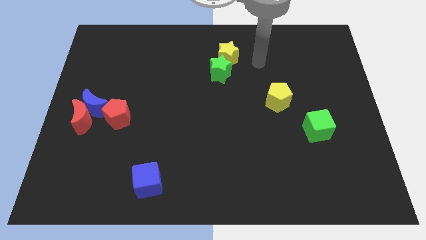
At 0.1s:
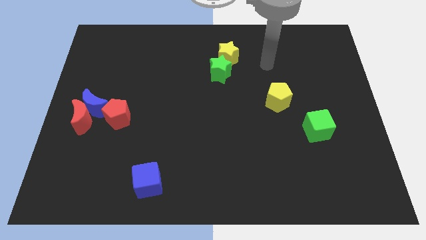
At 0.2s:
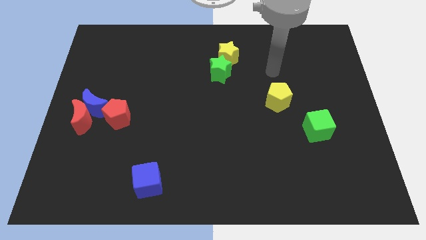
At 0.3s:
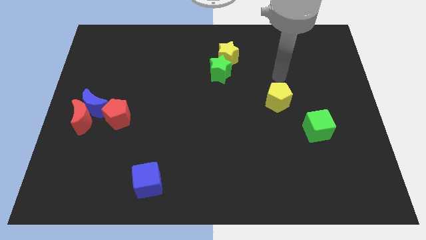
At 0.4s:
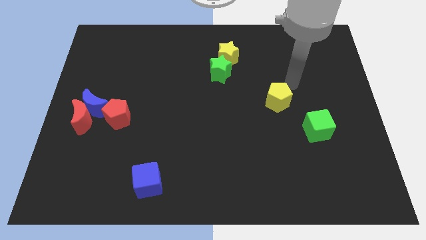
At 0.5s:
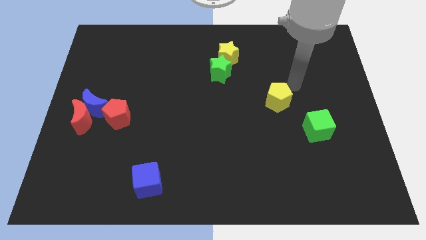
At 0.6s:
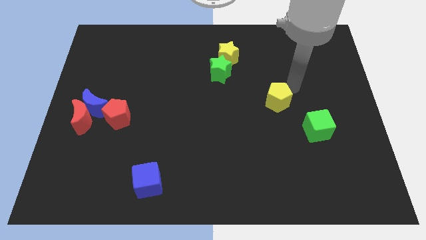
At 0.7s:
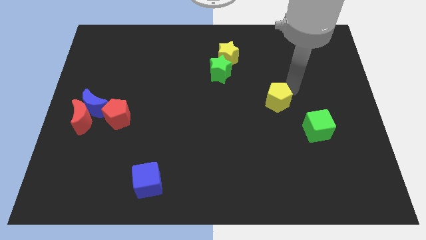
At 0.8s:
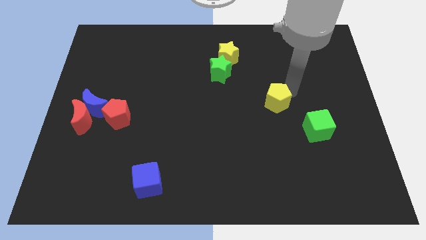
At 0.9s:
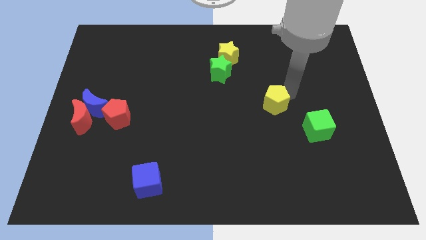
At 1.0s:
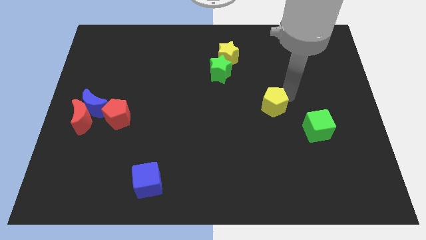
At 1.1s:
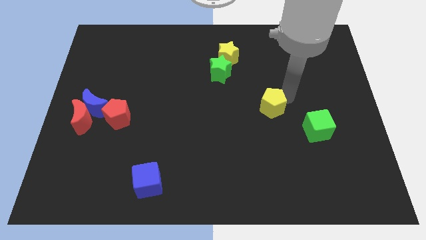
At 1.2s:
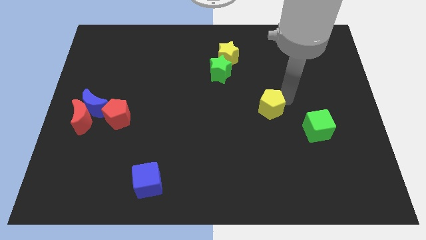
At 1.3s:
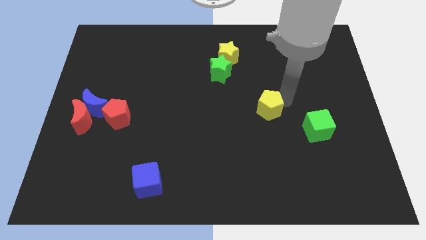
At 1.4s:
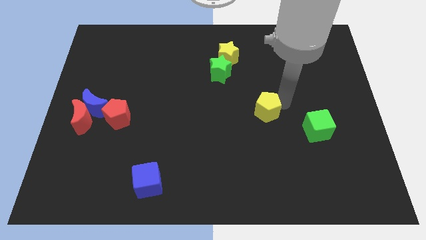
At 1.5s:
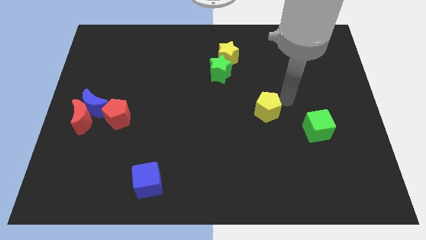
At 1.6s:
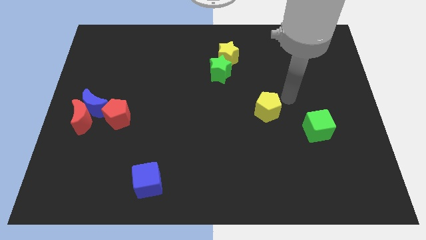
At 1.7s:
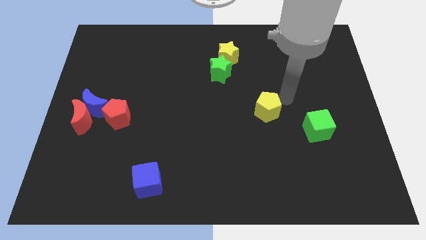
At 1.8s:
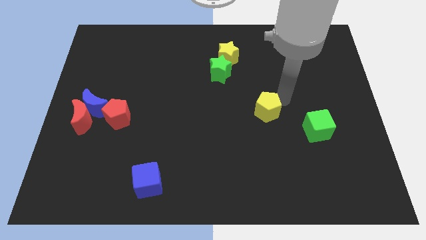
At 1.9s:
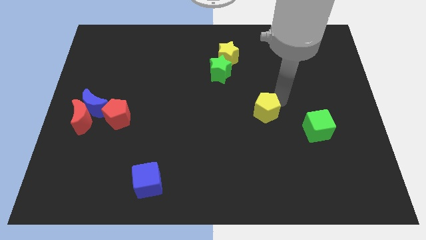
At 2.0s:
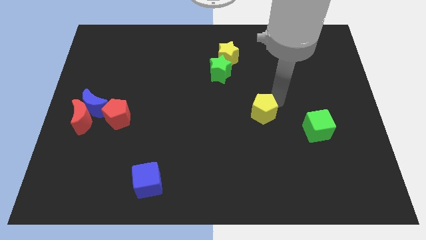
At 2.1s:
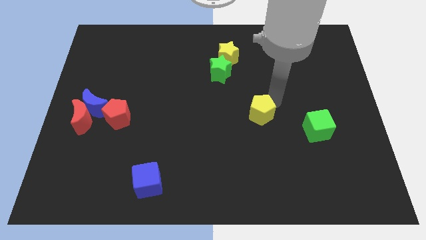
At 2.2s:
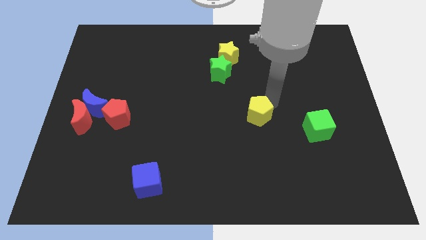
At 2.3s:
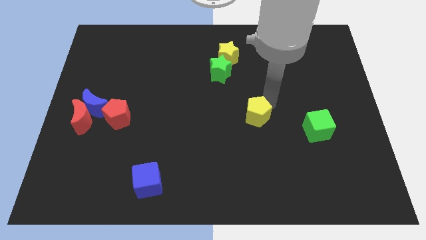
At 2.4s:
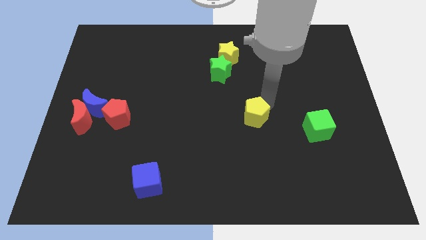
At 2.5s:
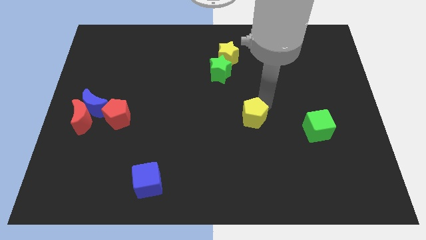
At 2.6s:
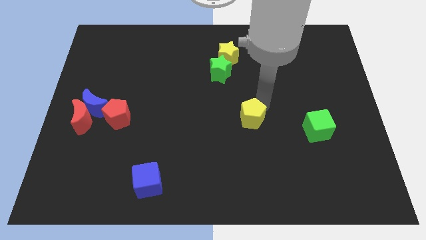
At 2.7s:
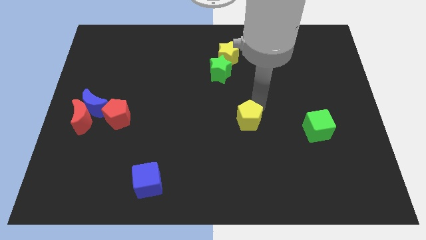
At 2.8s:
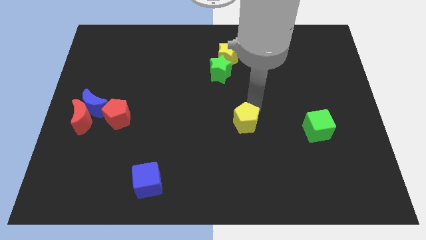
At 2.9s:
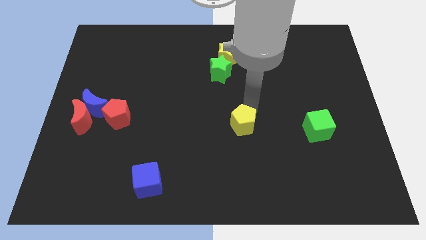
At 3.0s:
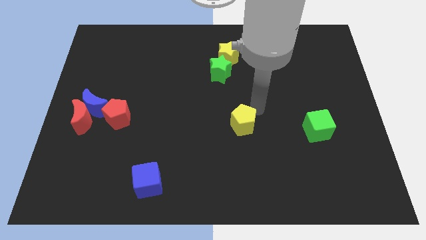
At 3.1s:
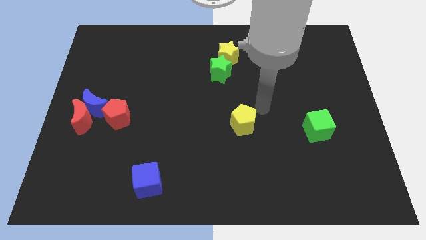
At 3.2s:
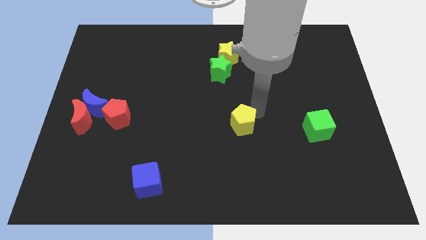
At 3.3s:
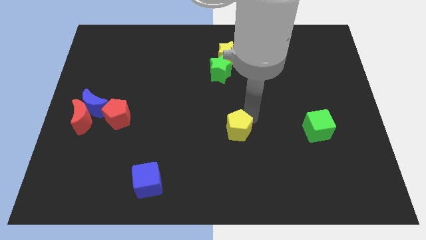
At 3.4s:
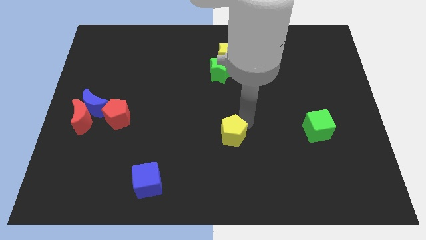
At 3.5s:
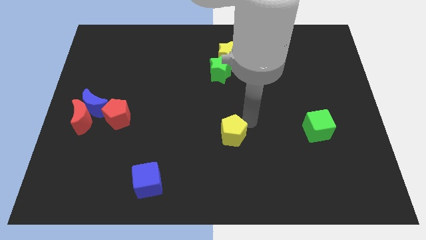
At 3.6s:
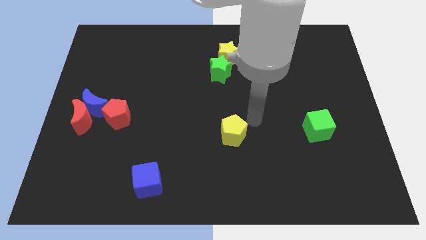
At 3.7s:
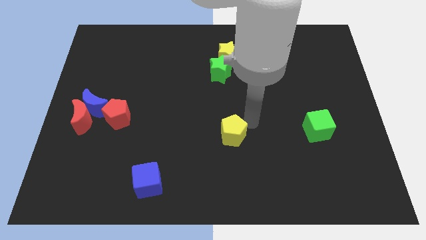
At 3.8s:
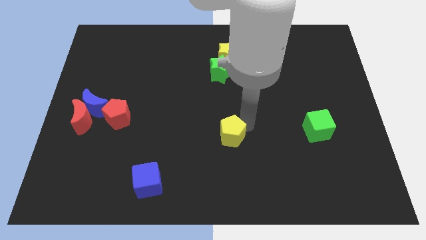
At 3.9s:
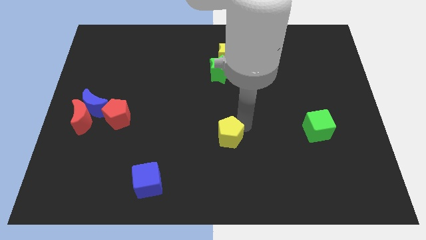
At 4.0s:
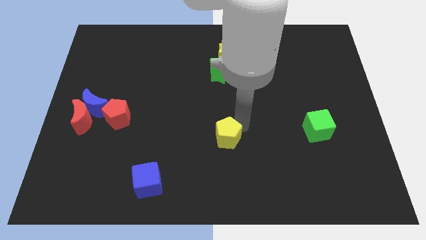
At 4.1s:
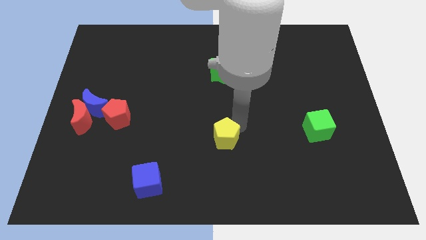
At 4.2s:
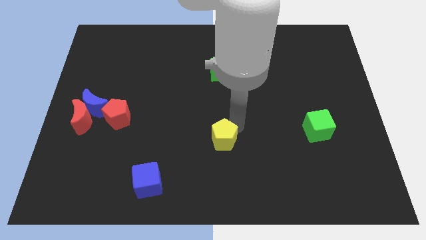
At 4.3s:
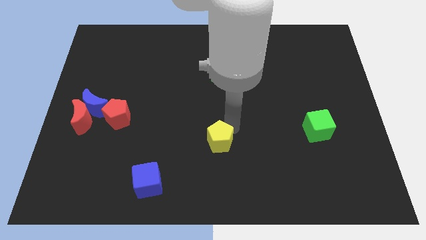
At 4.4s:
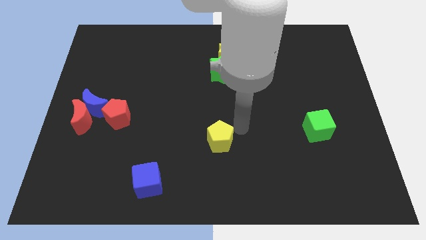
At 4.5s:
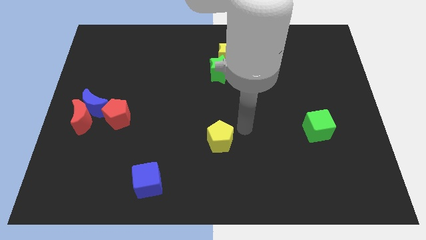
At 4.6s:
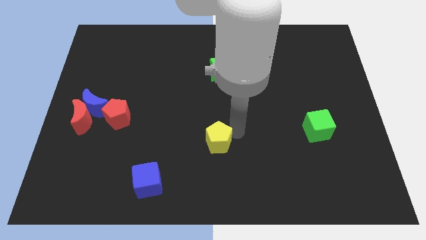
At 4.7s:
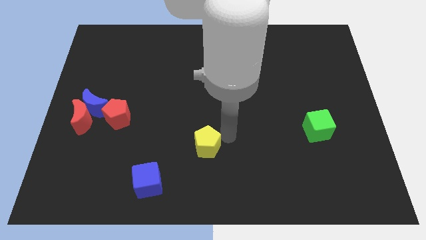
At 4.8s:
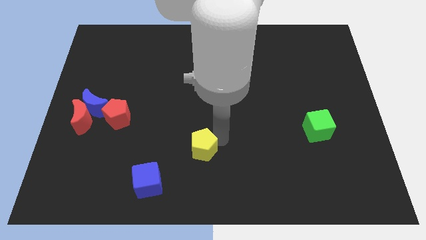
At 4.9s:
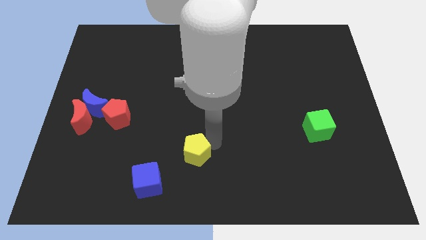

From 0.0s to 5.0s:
slide the yellow pentagon diagonally up and to the right of the blue cube

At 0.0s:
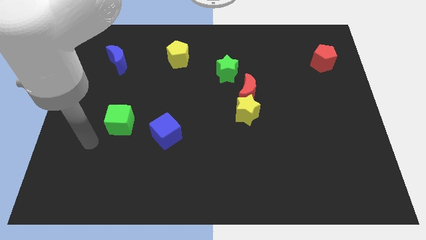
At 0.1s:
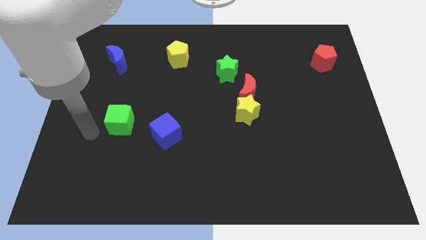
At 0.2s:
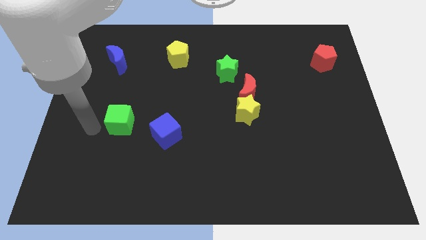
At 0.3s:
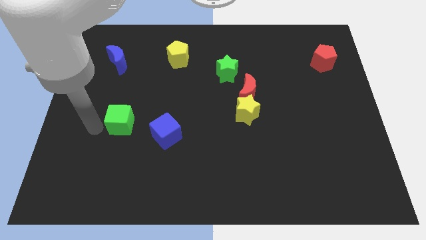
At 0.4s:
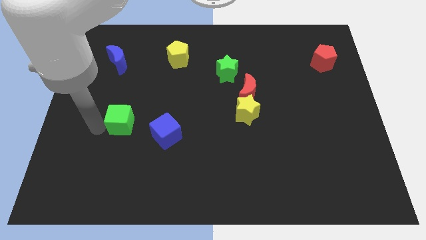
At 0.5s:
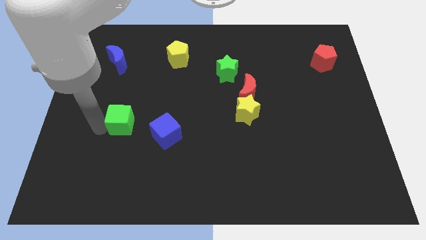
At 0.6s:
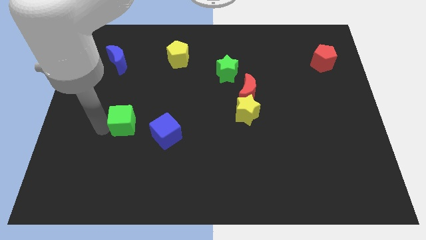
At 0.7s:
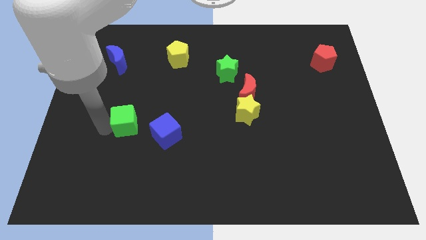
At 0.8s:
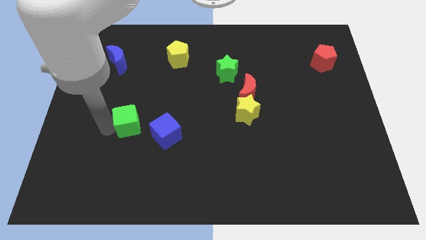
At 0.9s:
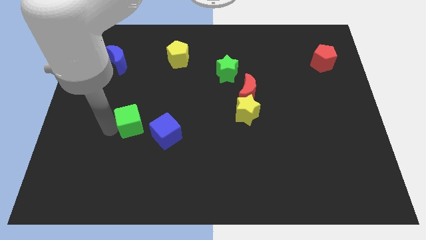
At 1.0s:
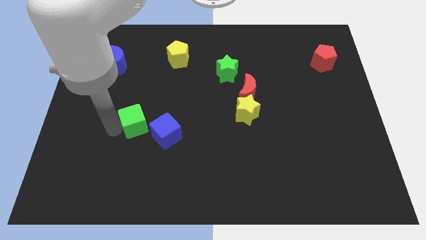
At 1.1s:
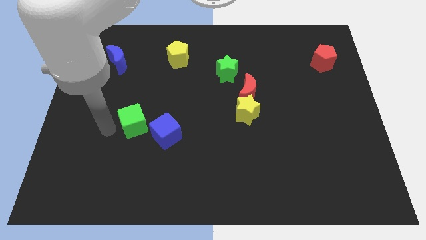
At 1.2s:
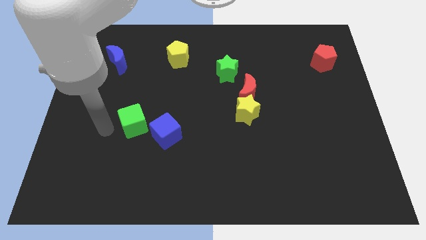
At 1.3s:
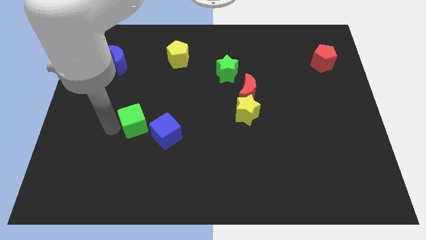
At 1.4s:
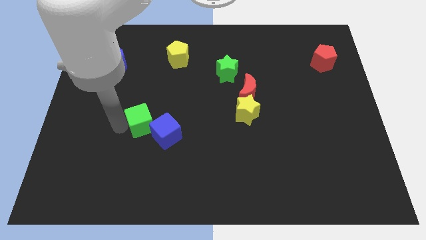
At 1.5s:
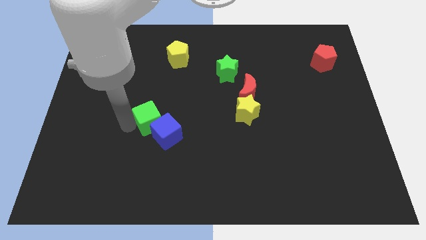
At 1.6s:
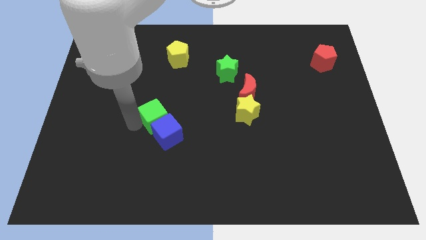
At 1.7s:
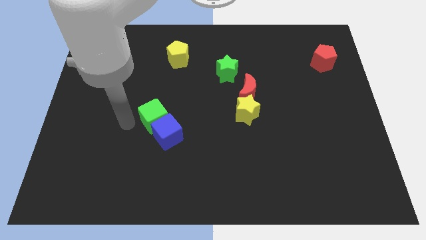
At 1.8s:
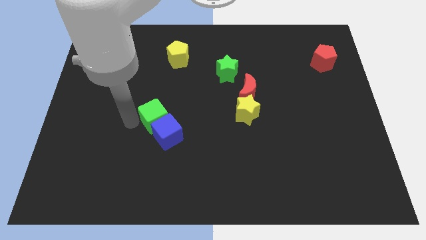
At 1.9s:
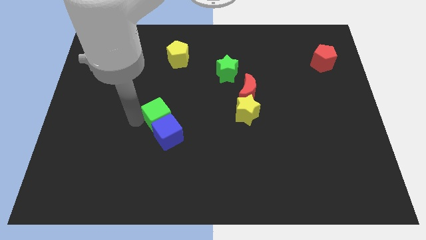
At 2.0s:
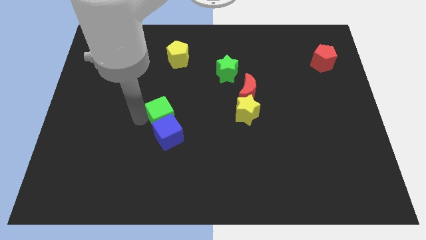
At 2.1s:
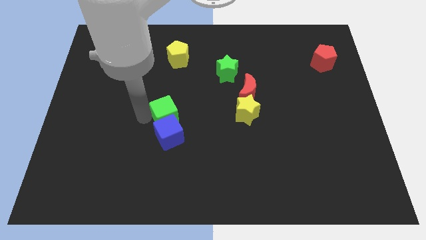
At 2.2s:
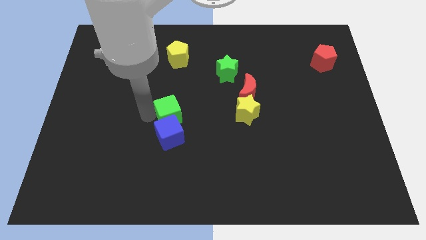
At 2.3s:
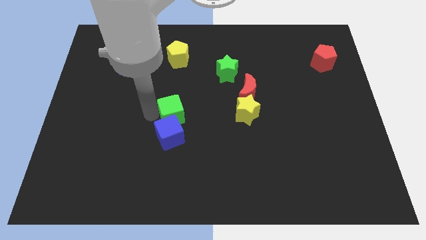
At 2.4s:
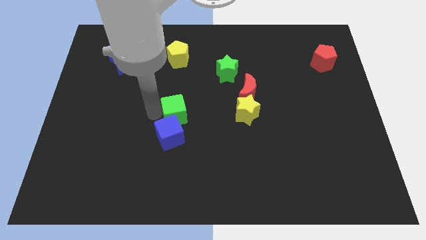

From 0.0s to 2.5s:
put the green cube left of the yellow star
